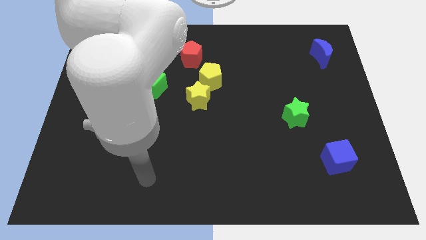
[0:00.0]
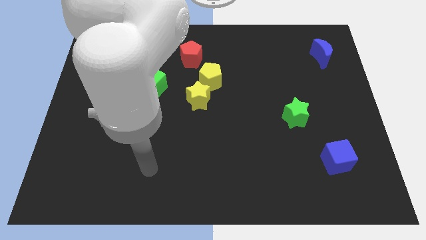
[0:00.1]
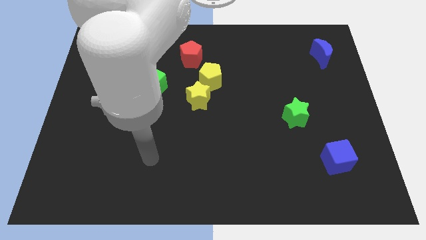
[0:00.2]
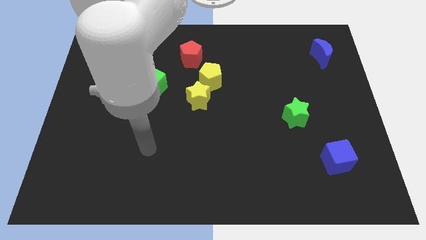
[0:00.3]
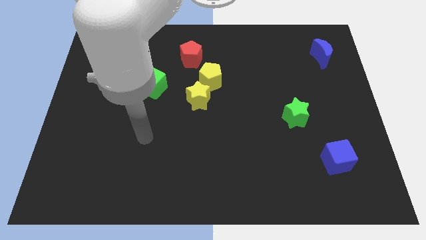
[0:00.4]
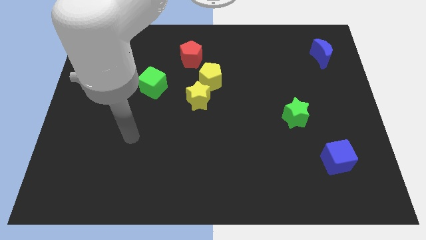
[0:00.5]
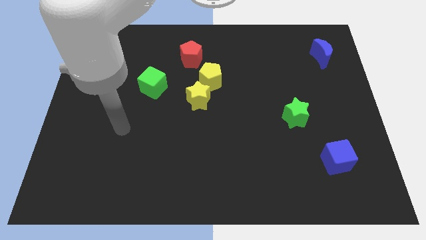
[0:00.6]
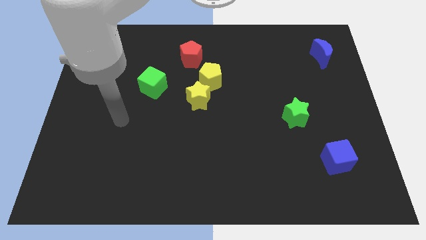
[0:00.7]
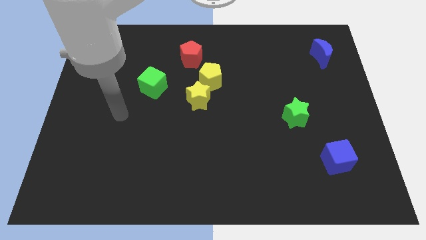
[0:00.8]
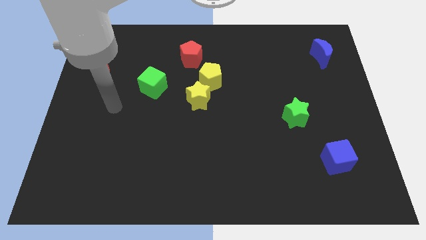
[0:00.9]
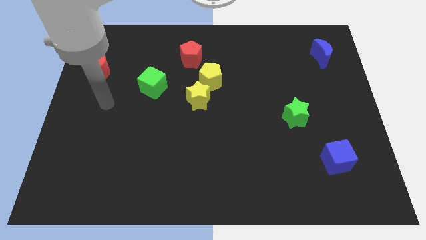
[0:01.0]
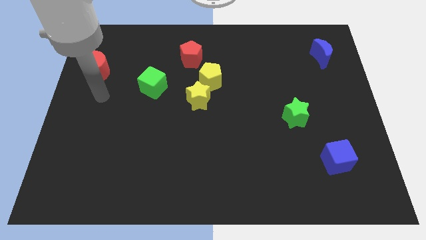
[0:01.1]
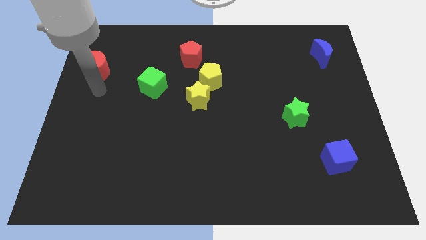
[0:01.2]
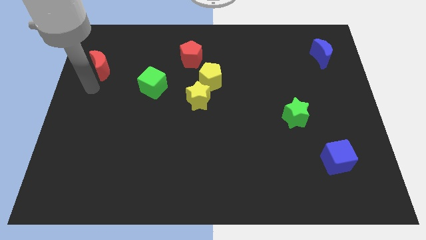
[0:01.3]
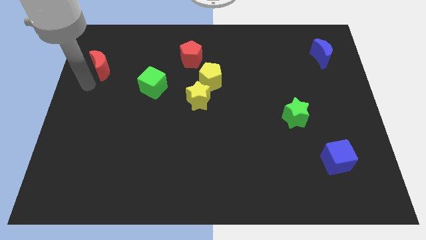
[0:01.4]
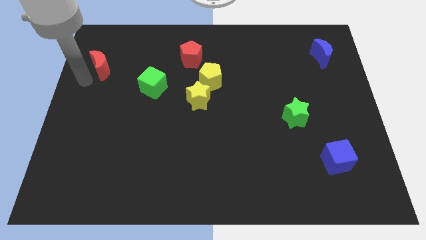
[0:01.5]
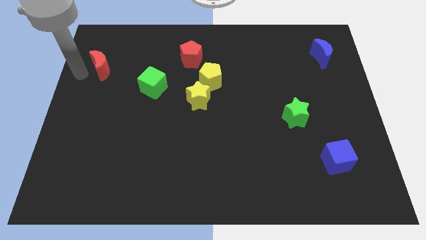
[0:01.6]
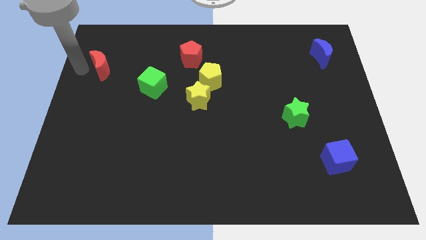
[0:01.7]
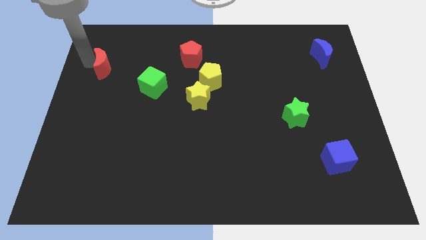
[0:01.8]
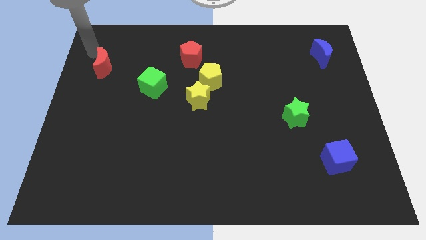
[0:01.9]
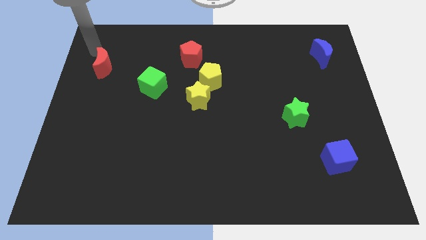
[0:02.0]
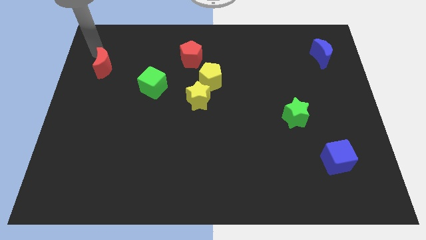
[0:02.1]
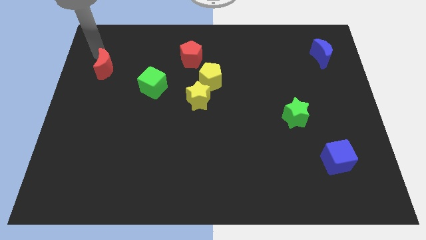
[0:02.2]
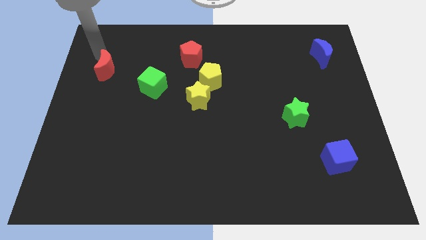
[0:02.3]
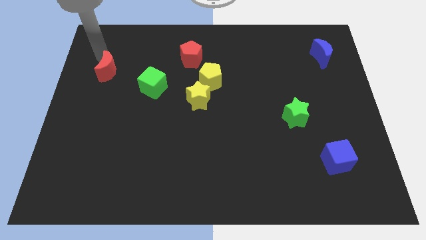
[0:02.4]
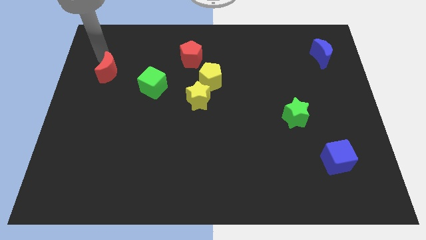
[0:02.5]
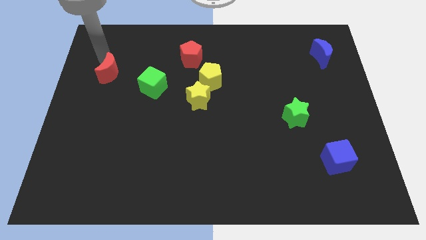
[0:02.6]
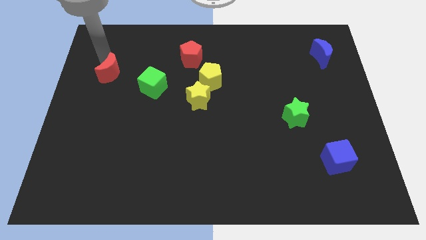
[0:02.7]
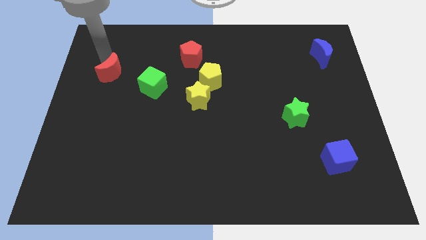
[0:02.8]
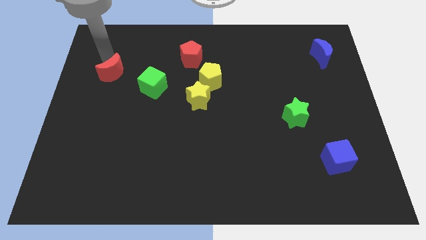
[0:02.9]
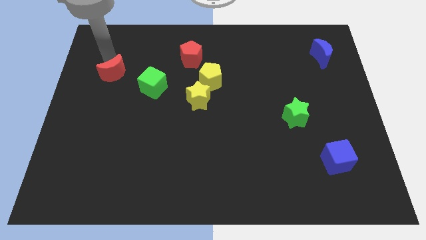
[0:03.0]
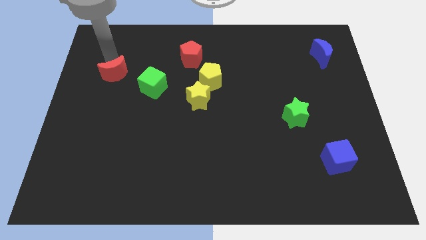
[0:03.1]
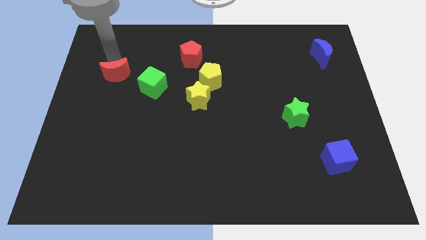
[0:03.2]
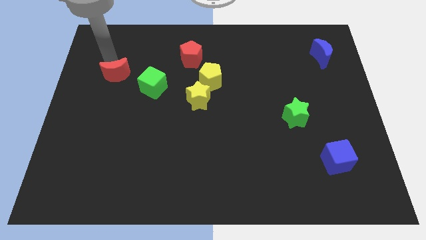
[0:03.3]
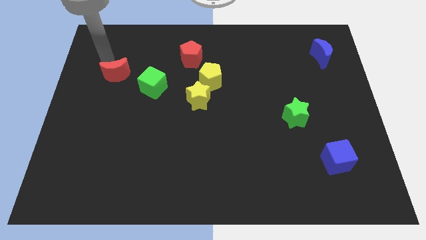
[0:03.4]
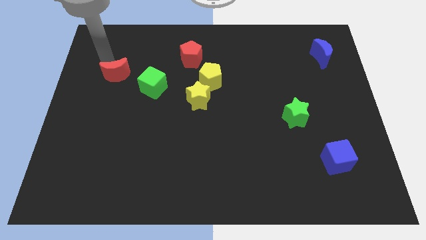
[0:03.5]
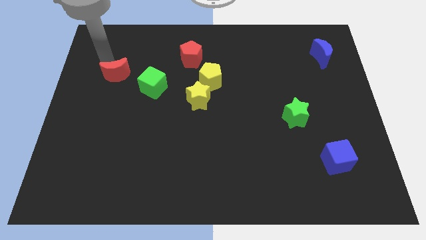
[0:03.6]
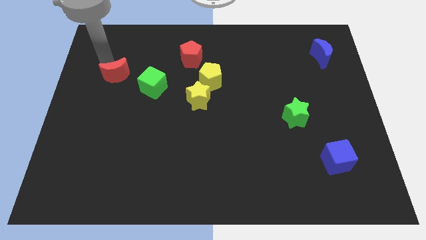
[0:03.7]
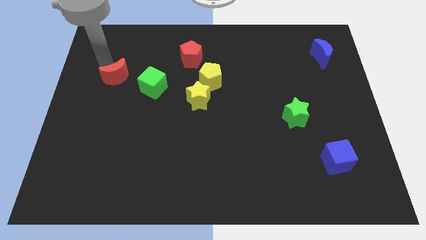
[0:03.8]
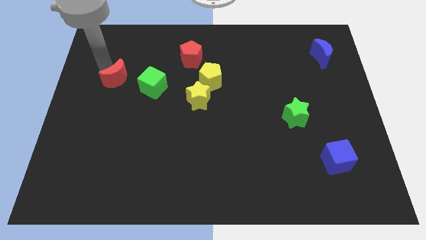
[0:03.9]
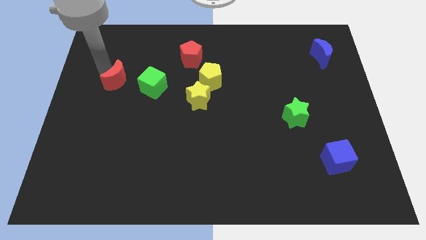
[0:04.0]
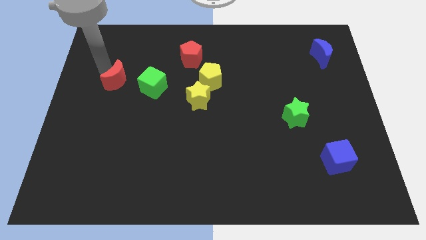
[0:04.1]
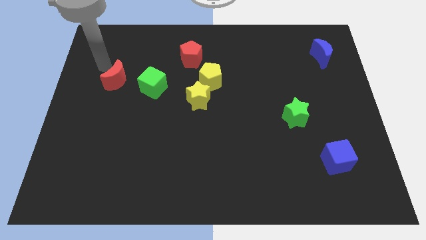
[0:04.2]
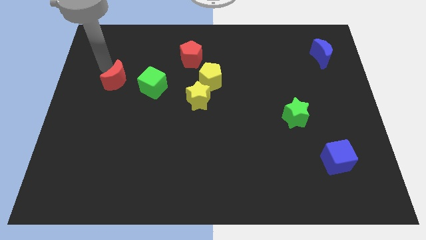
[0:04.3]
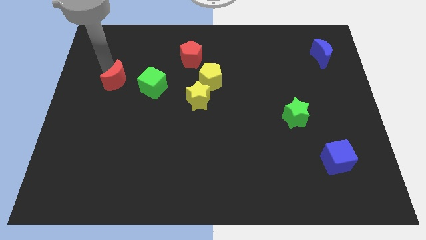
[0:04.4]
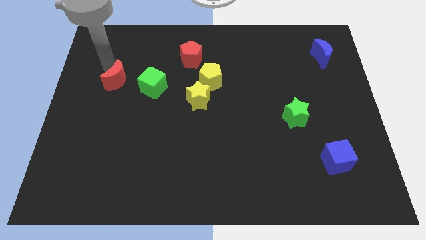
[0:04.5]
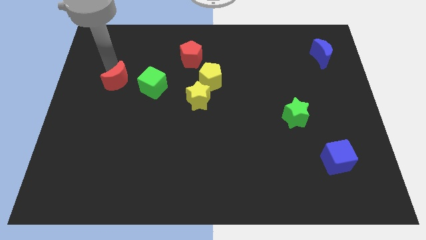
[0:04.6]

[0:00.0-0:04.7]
push the red moon downwards and right diagonally a little bit

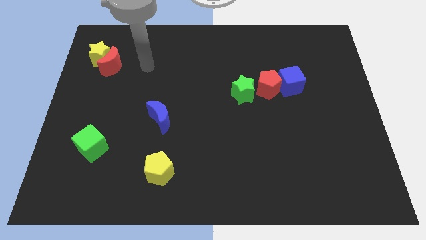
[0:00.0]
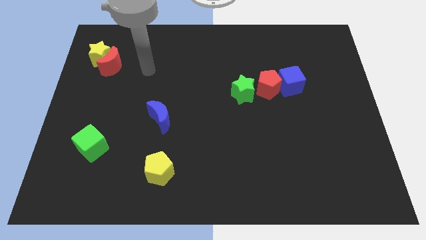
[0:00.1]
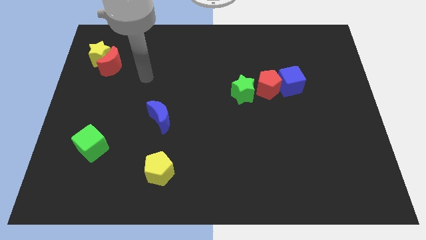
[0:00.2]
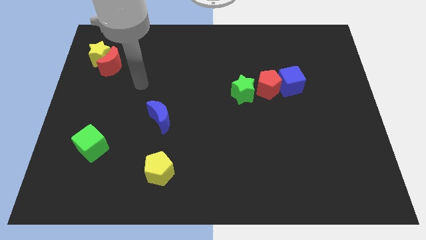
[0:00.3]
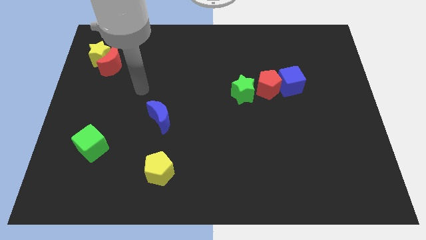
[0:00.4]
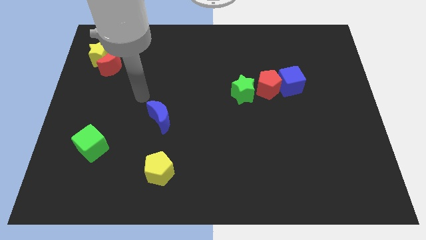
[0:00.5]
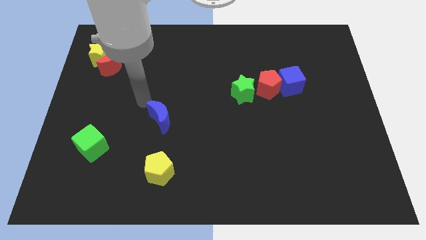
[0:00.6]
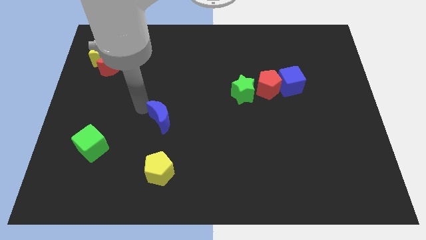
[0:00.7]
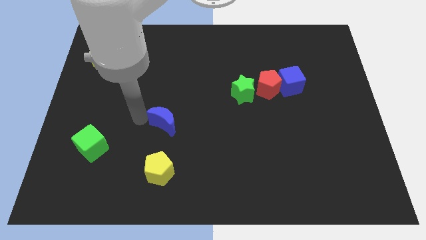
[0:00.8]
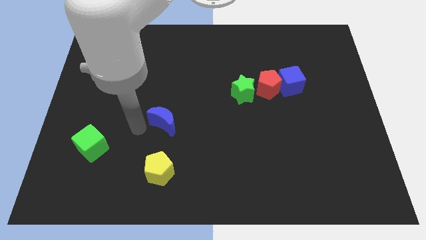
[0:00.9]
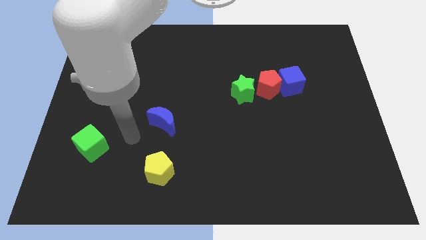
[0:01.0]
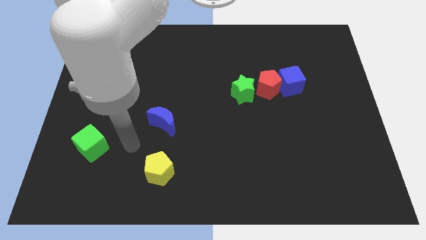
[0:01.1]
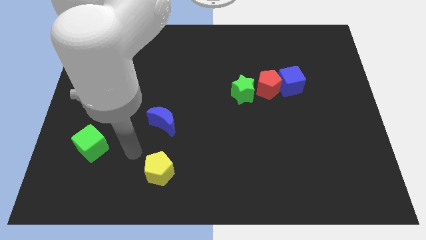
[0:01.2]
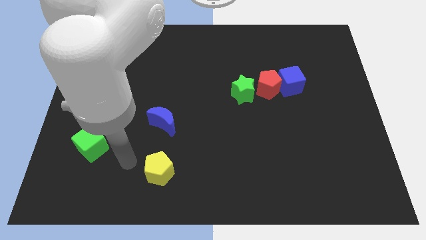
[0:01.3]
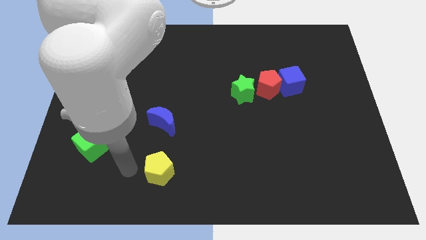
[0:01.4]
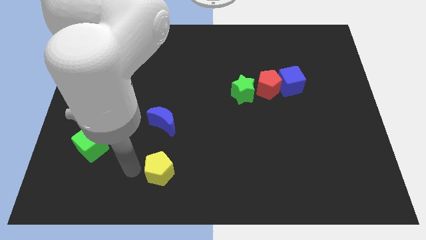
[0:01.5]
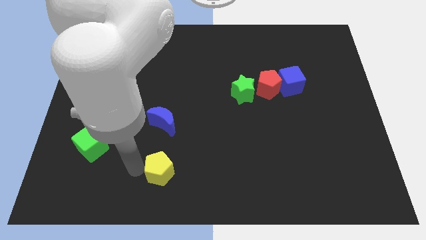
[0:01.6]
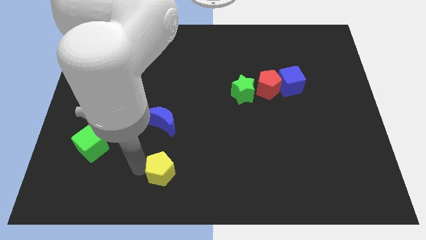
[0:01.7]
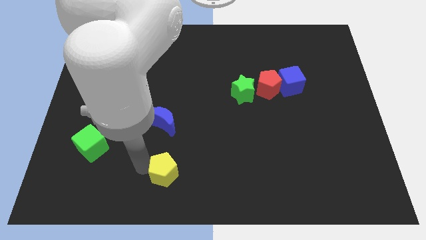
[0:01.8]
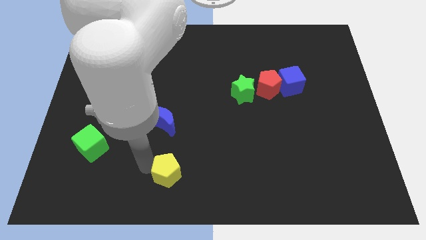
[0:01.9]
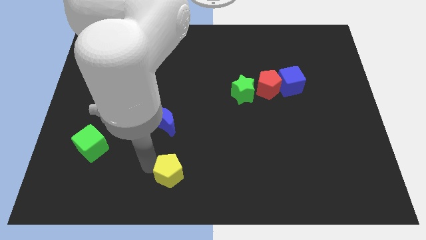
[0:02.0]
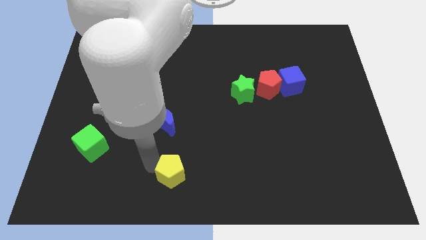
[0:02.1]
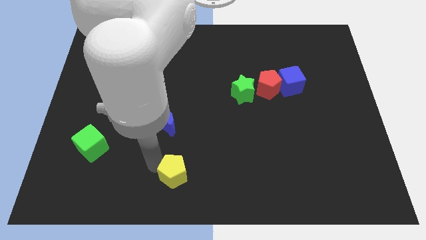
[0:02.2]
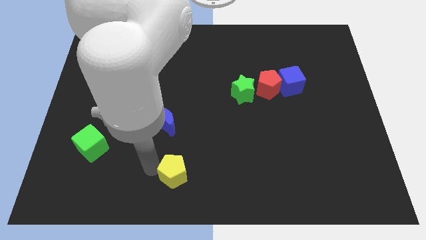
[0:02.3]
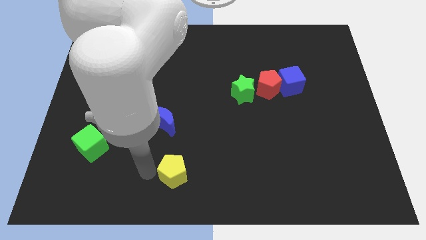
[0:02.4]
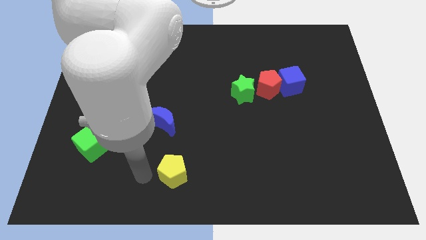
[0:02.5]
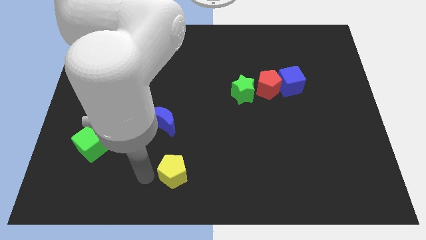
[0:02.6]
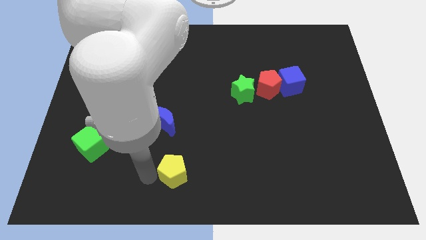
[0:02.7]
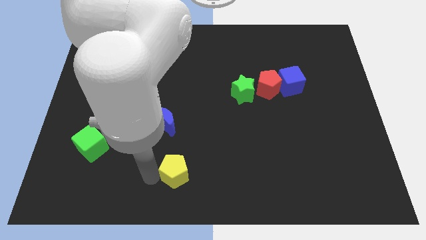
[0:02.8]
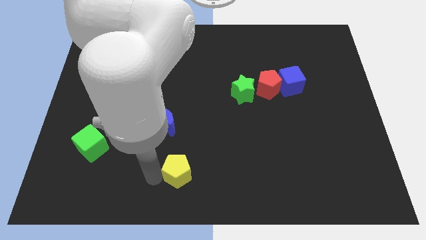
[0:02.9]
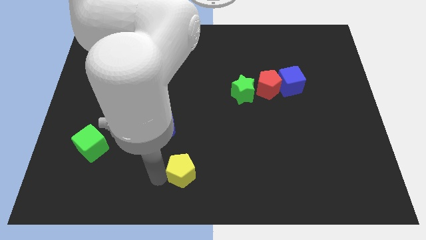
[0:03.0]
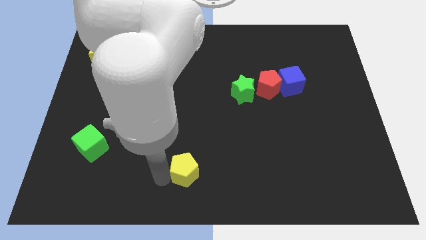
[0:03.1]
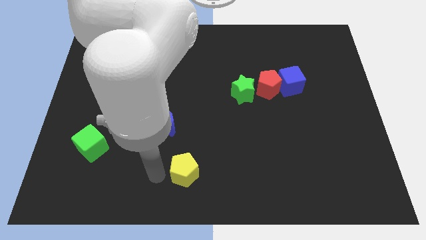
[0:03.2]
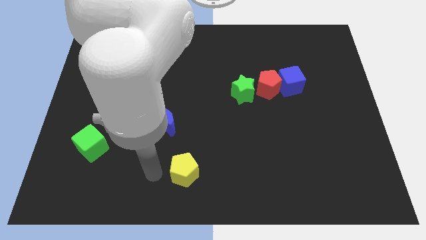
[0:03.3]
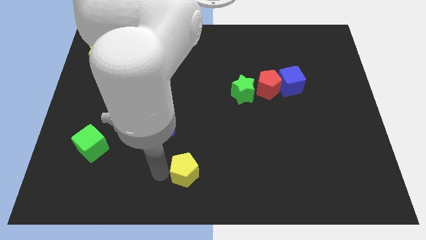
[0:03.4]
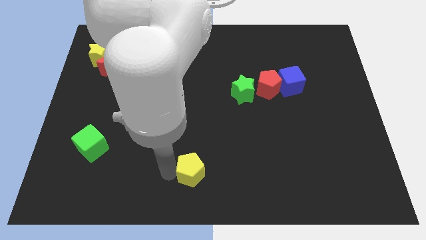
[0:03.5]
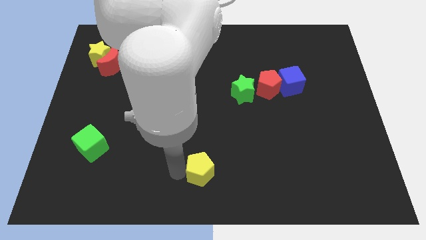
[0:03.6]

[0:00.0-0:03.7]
slightly move the yellow pentagon to the right
